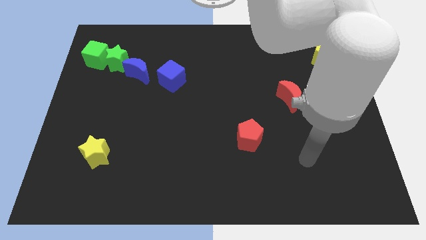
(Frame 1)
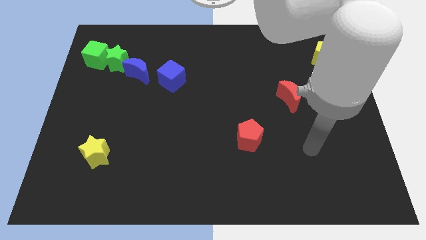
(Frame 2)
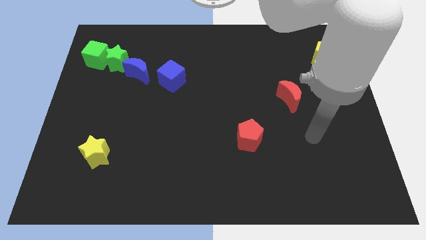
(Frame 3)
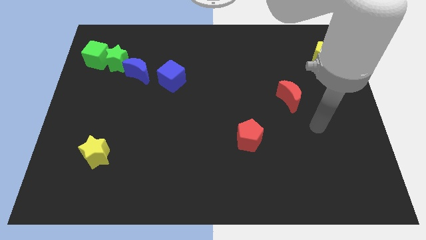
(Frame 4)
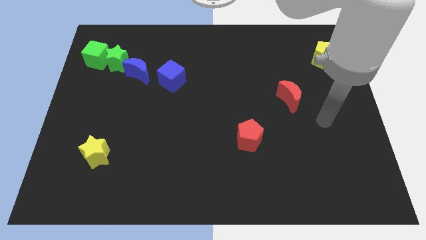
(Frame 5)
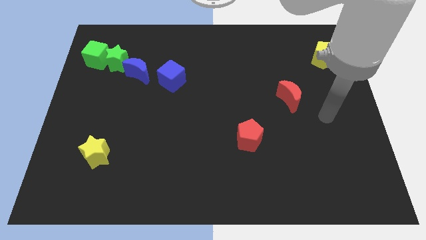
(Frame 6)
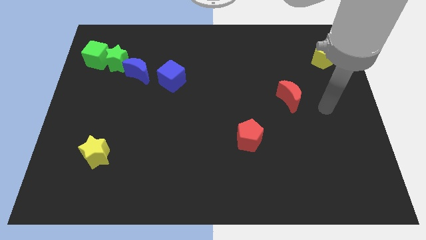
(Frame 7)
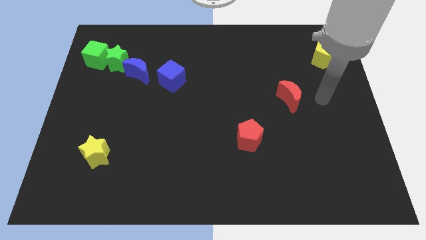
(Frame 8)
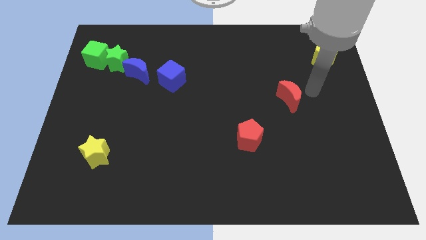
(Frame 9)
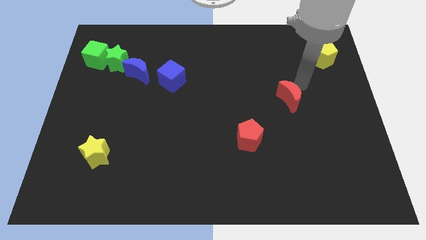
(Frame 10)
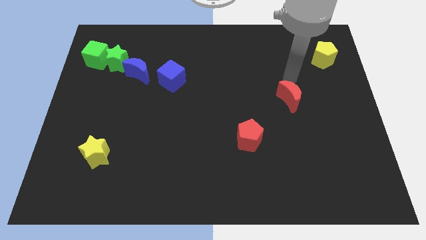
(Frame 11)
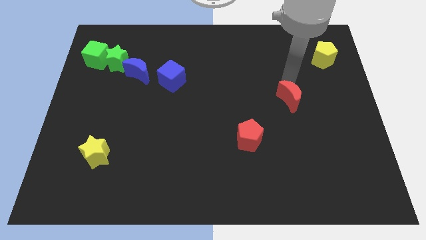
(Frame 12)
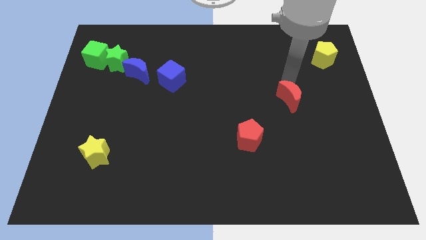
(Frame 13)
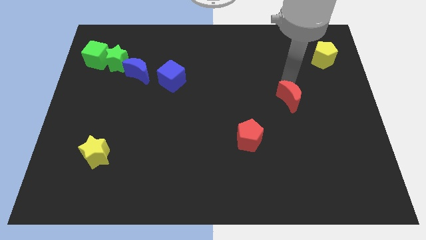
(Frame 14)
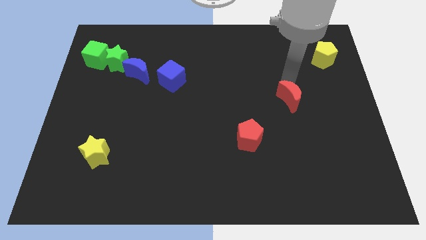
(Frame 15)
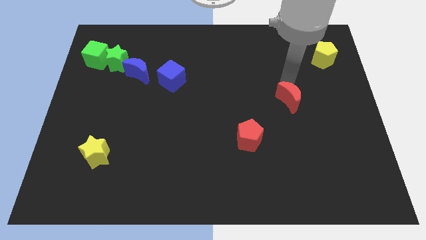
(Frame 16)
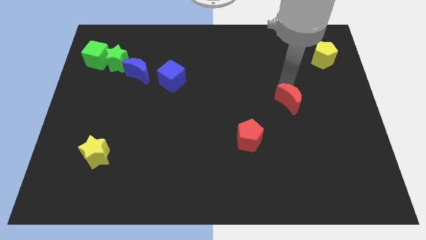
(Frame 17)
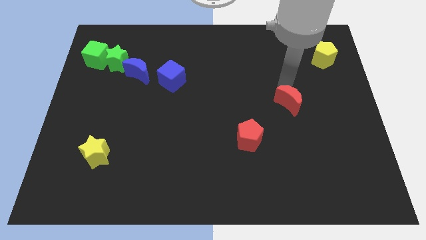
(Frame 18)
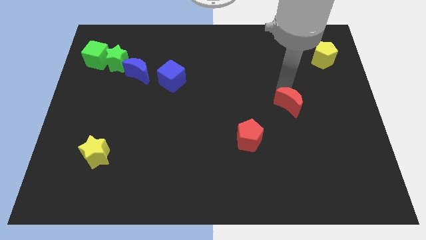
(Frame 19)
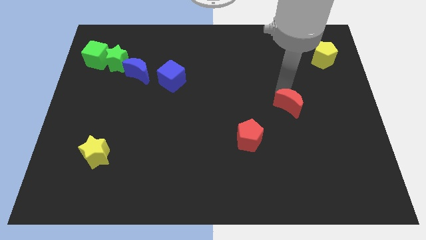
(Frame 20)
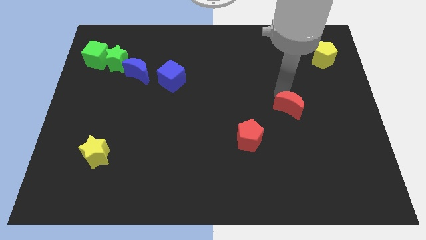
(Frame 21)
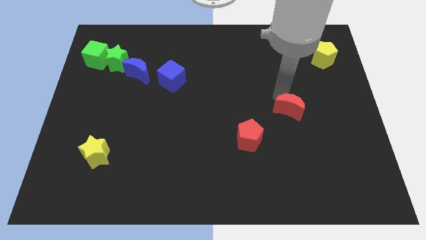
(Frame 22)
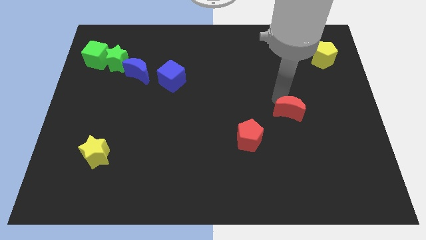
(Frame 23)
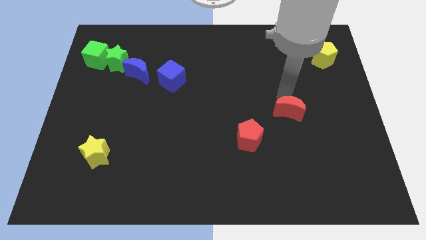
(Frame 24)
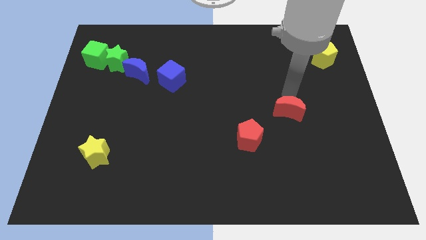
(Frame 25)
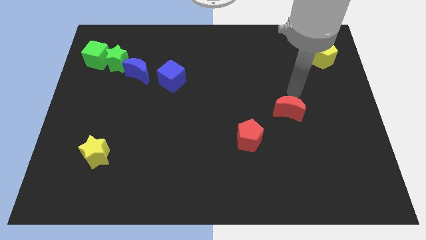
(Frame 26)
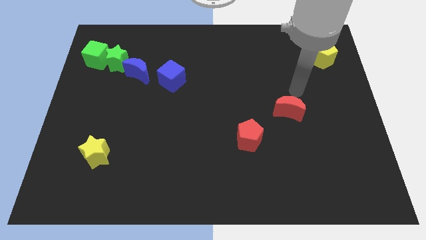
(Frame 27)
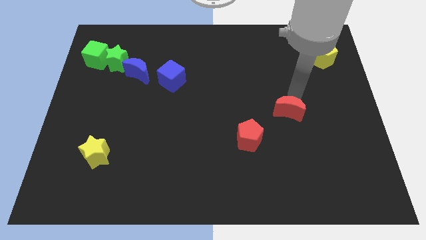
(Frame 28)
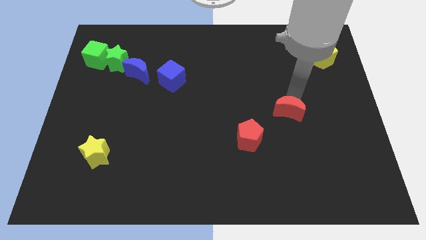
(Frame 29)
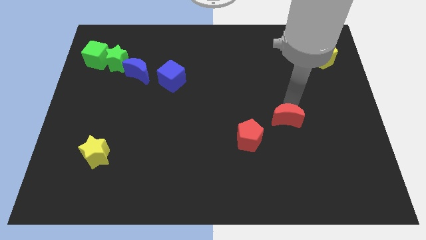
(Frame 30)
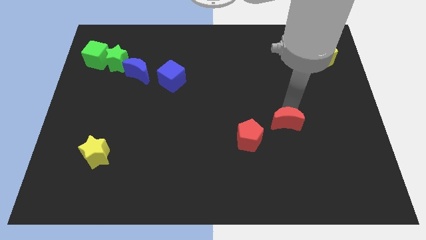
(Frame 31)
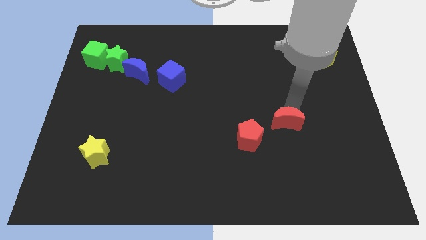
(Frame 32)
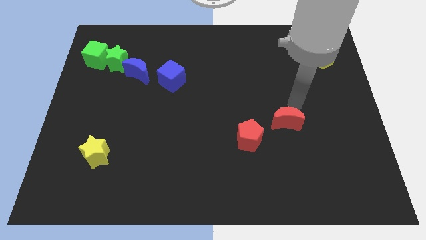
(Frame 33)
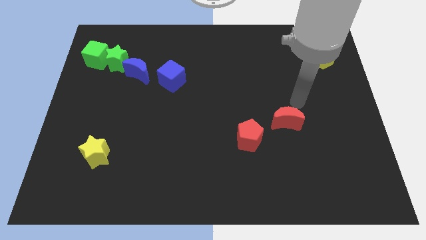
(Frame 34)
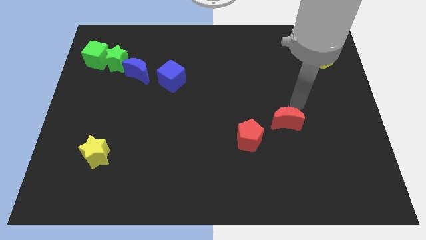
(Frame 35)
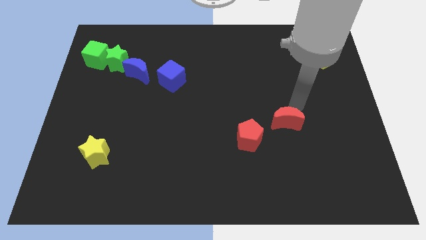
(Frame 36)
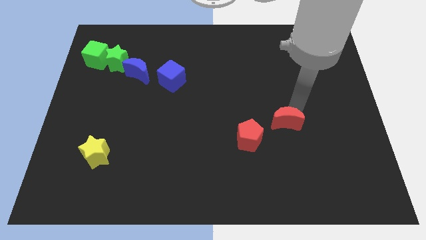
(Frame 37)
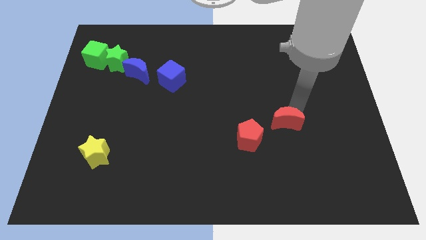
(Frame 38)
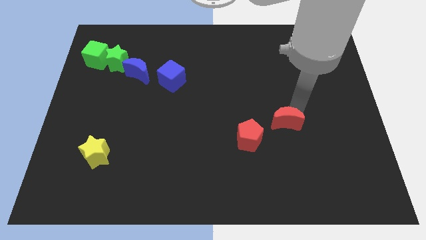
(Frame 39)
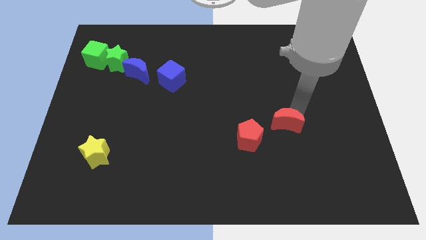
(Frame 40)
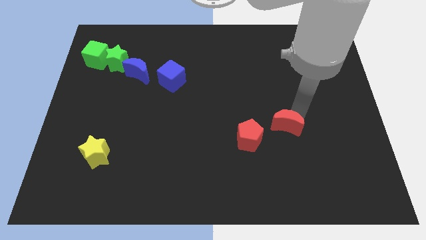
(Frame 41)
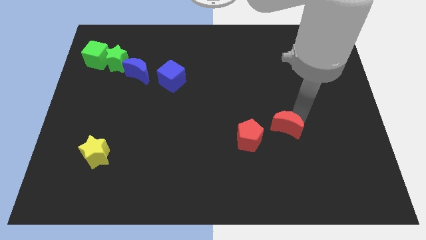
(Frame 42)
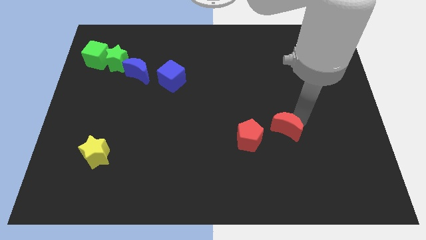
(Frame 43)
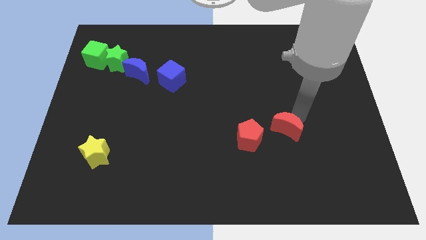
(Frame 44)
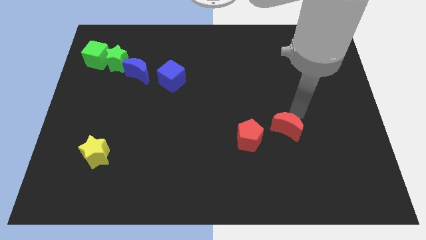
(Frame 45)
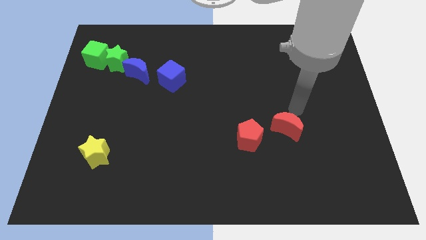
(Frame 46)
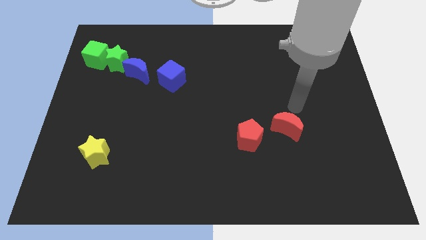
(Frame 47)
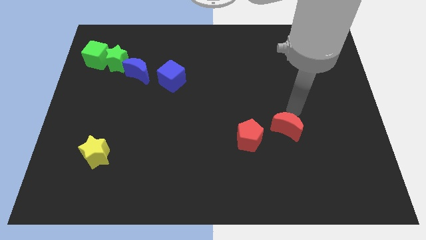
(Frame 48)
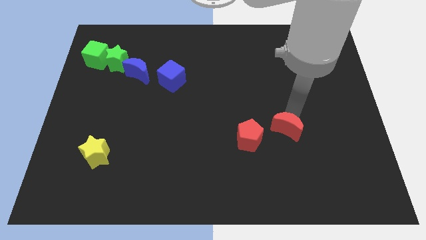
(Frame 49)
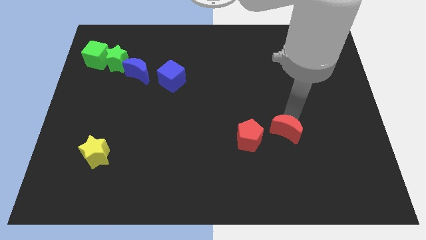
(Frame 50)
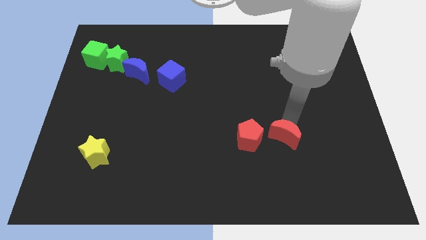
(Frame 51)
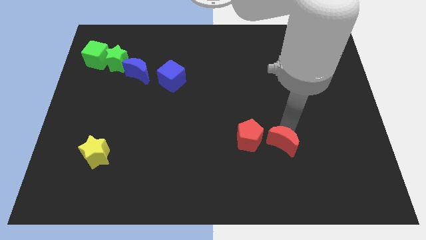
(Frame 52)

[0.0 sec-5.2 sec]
move the red moon to the bottom right side of the red pentagon

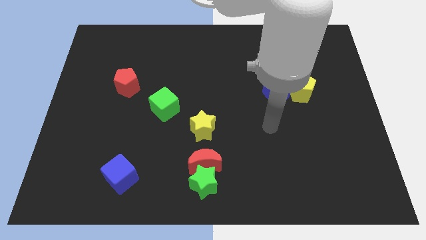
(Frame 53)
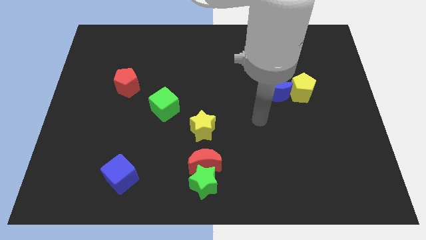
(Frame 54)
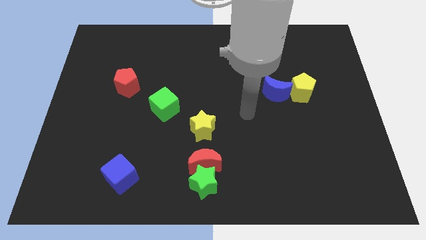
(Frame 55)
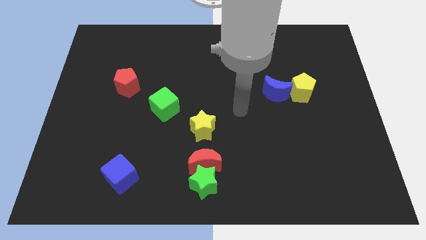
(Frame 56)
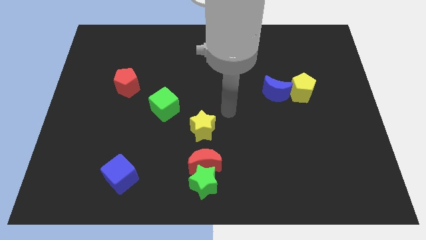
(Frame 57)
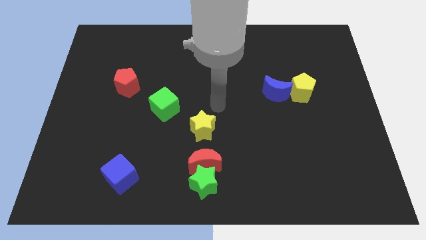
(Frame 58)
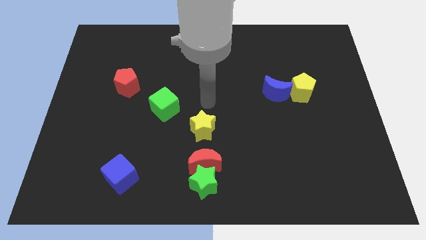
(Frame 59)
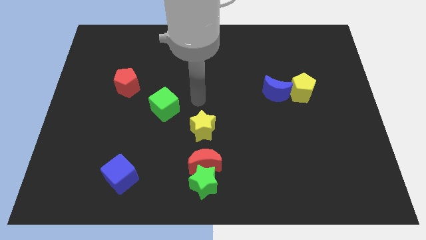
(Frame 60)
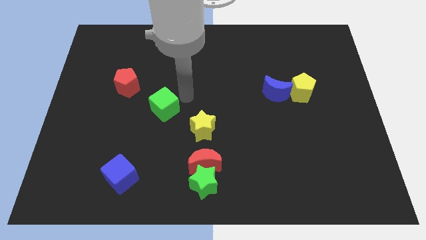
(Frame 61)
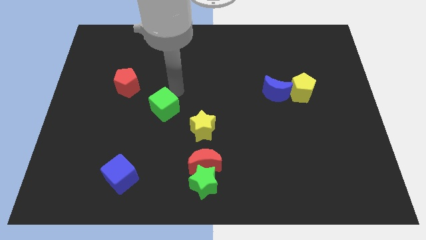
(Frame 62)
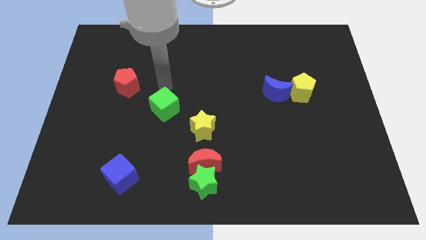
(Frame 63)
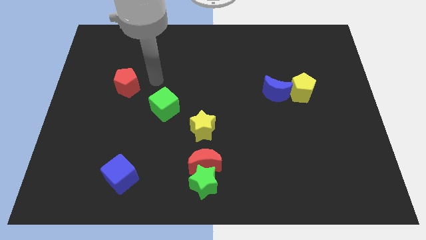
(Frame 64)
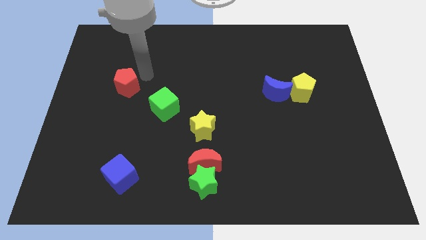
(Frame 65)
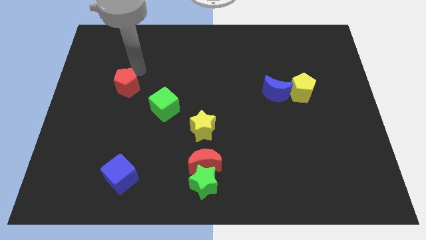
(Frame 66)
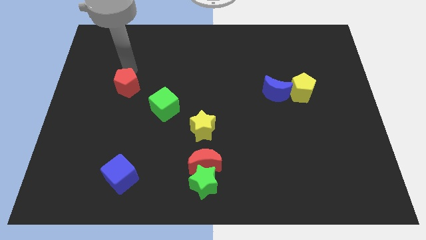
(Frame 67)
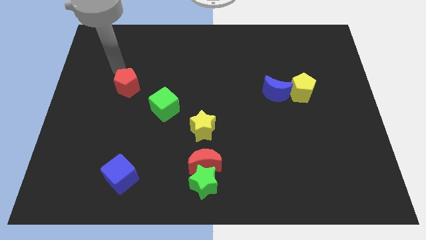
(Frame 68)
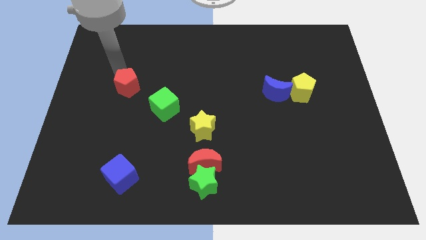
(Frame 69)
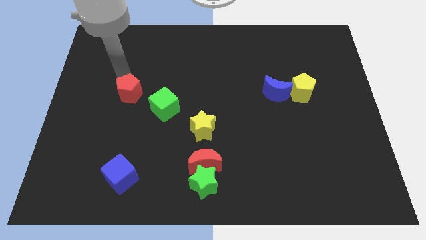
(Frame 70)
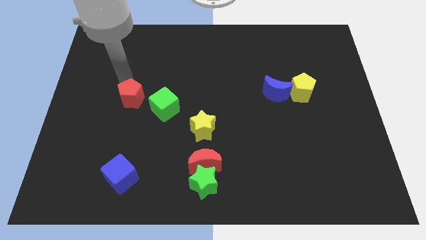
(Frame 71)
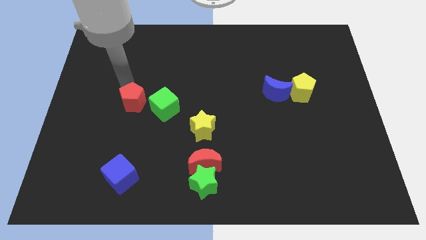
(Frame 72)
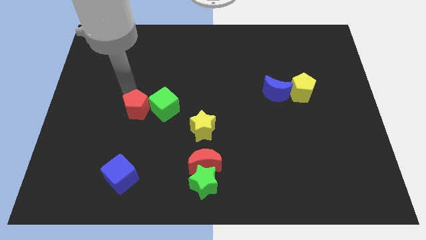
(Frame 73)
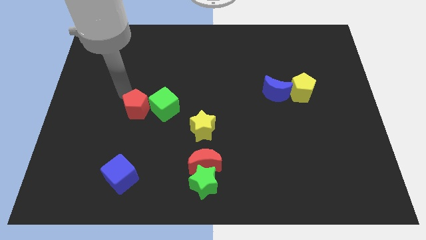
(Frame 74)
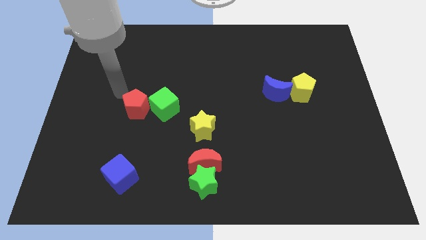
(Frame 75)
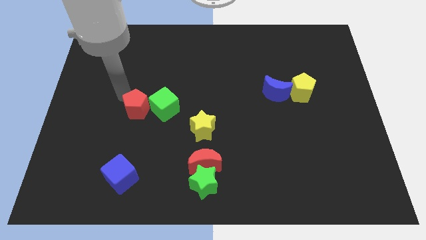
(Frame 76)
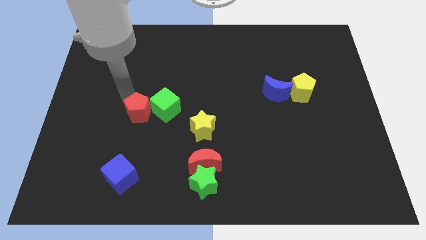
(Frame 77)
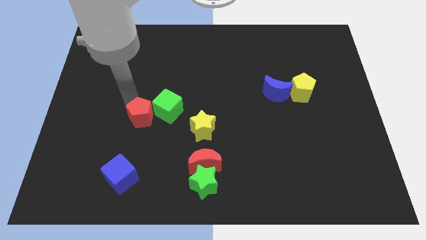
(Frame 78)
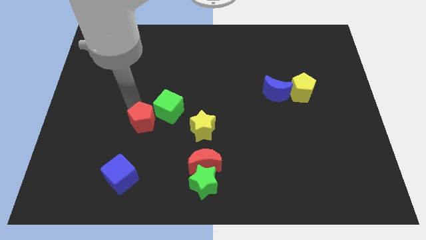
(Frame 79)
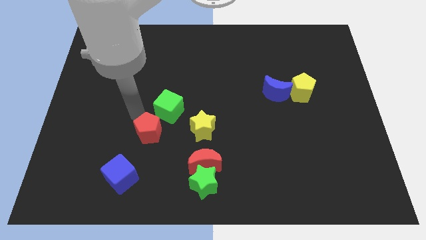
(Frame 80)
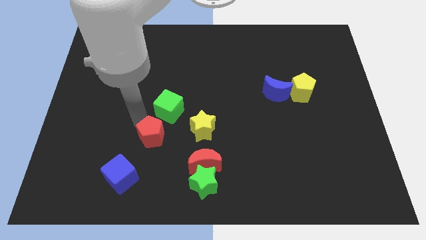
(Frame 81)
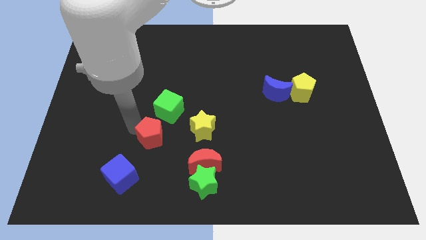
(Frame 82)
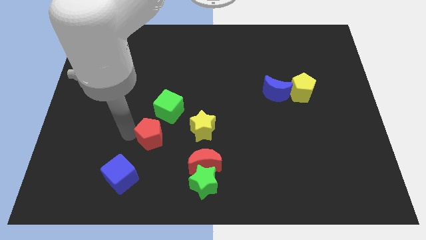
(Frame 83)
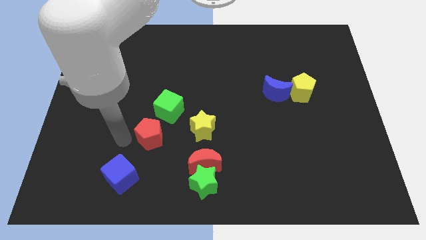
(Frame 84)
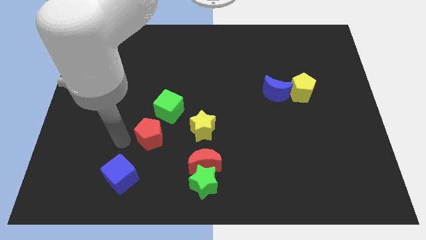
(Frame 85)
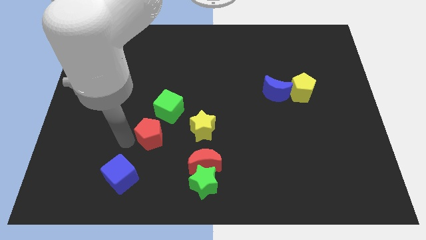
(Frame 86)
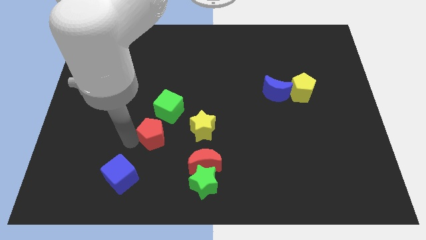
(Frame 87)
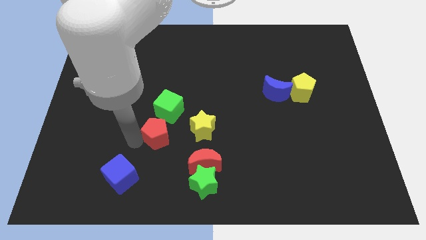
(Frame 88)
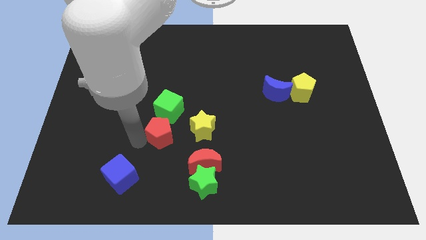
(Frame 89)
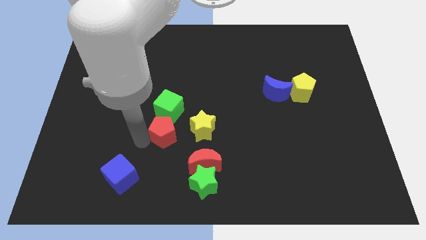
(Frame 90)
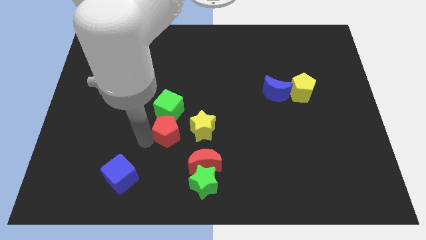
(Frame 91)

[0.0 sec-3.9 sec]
push the red pentagon diagonally down and to the right of the green cube
